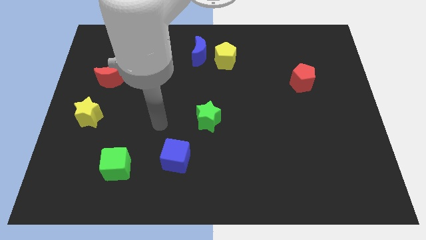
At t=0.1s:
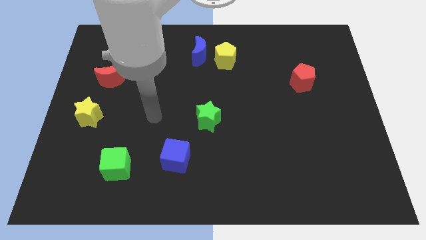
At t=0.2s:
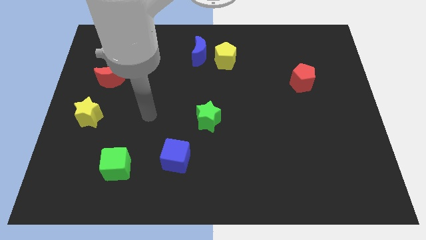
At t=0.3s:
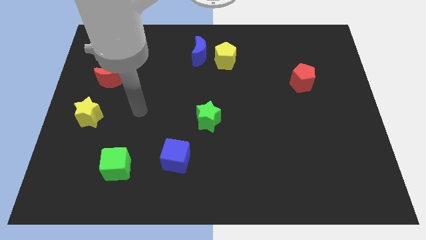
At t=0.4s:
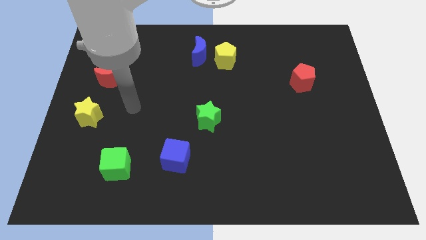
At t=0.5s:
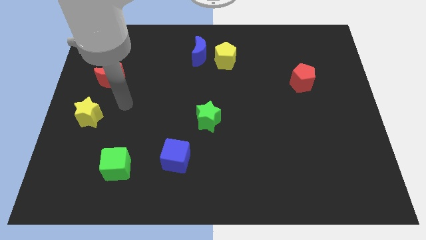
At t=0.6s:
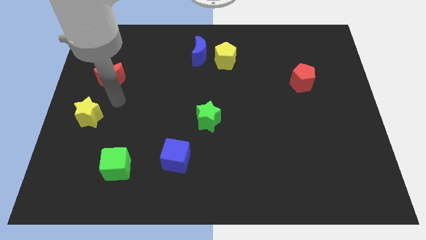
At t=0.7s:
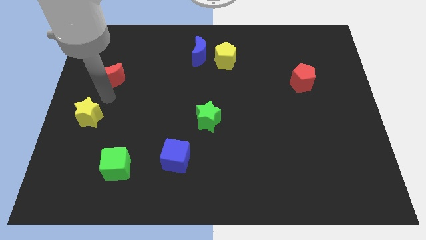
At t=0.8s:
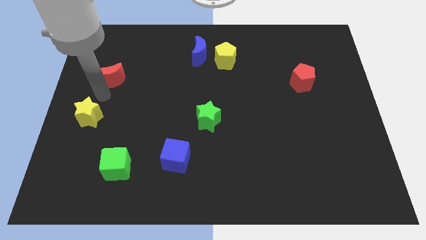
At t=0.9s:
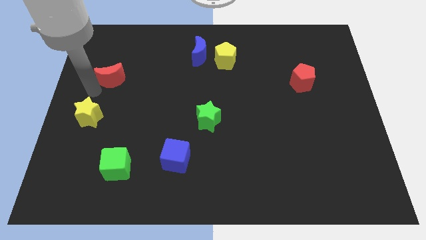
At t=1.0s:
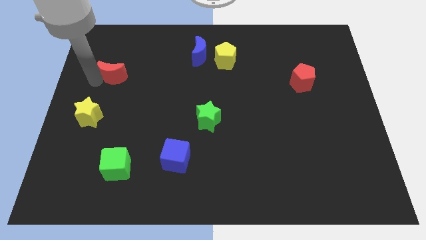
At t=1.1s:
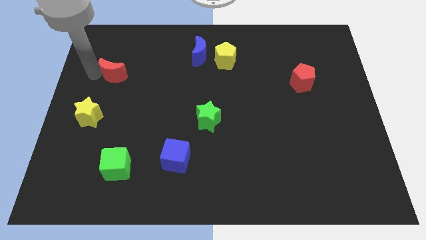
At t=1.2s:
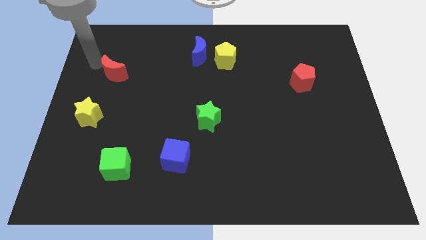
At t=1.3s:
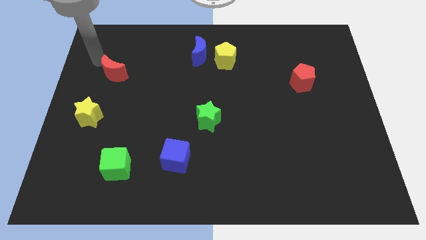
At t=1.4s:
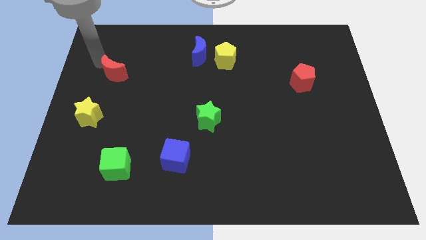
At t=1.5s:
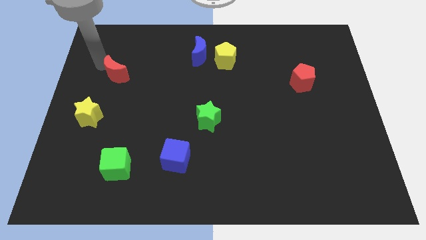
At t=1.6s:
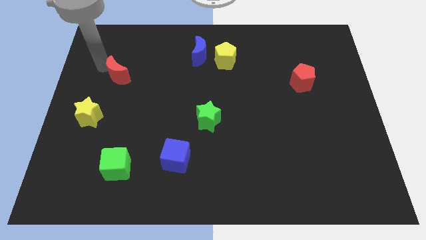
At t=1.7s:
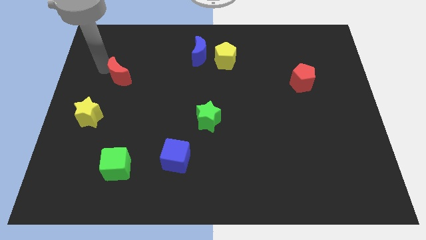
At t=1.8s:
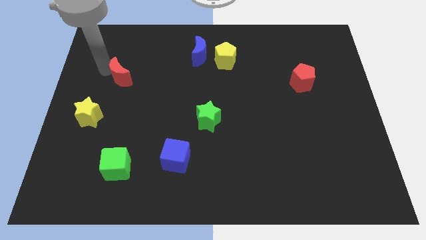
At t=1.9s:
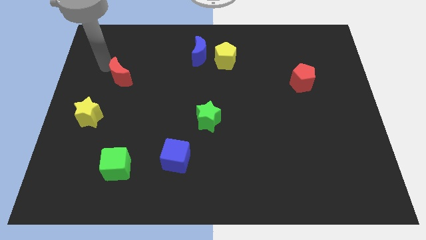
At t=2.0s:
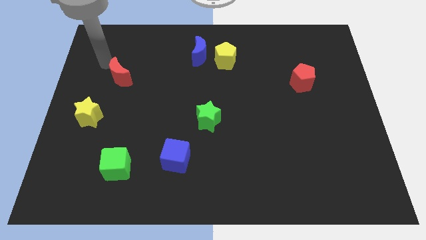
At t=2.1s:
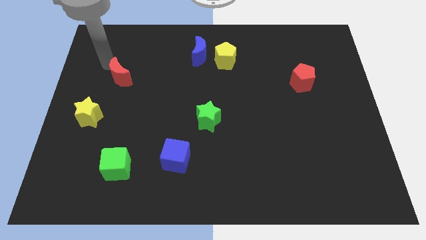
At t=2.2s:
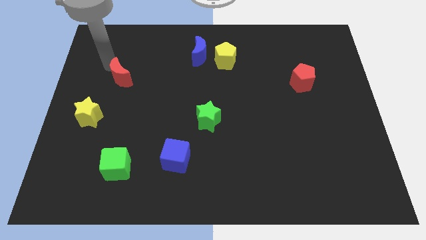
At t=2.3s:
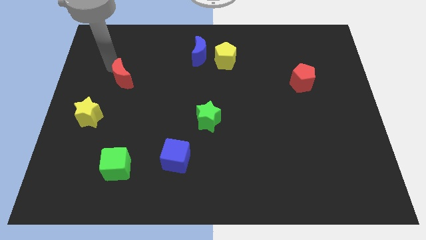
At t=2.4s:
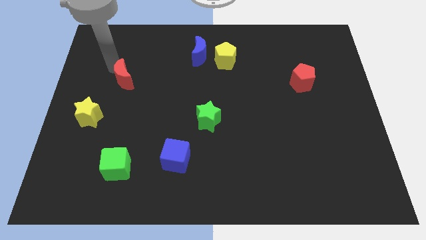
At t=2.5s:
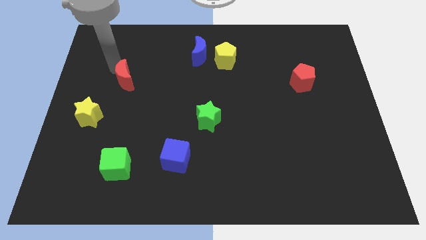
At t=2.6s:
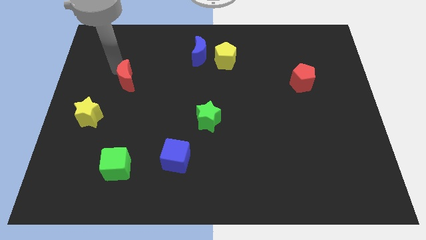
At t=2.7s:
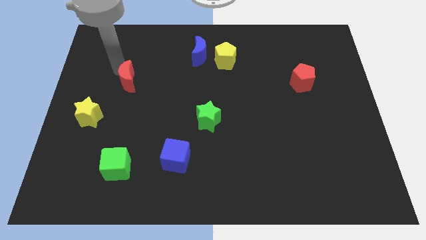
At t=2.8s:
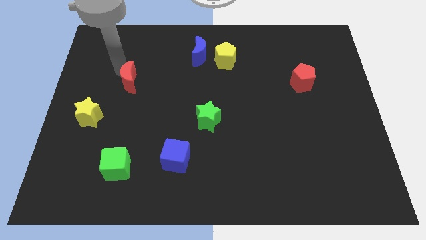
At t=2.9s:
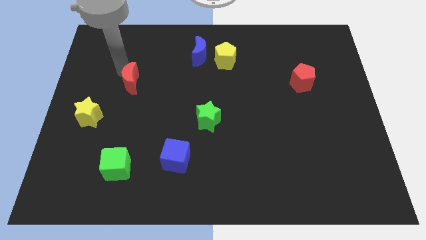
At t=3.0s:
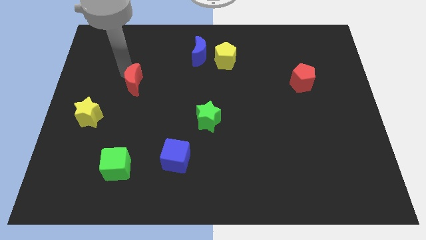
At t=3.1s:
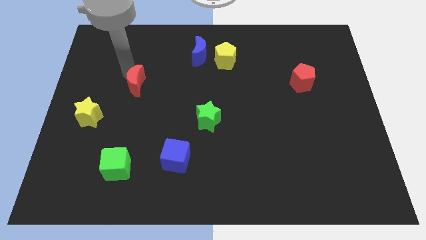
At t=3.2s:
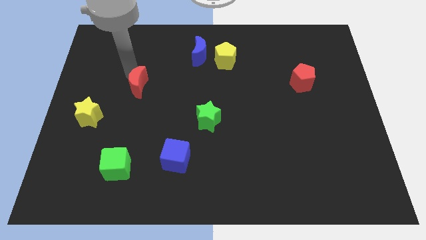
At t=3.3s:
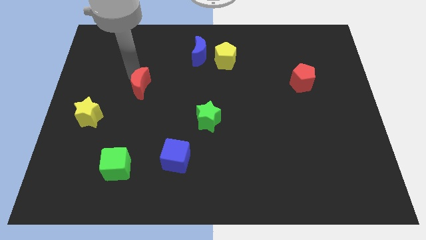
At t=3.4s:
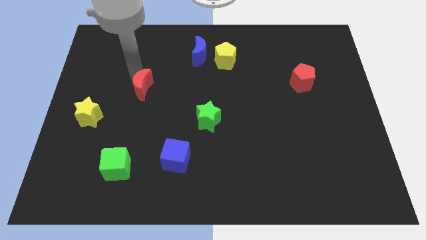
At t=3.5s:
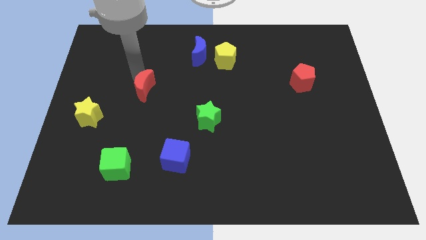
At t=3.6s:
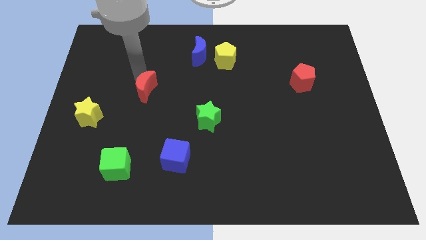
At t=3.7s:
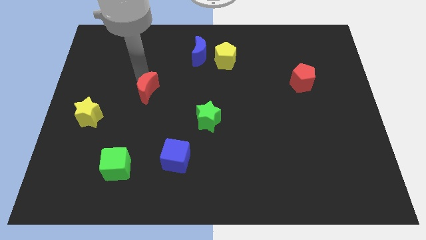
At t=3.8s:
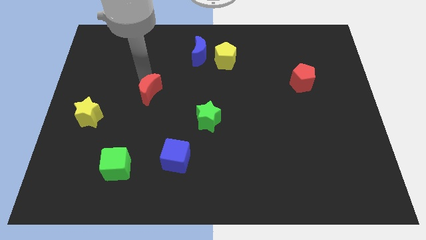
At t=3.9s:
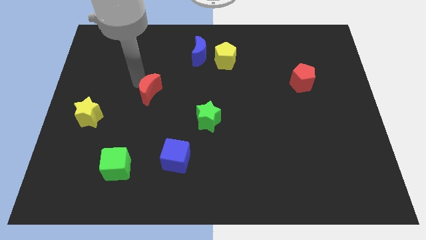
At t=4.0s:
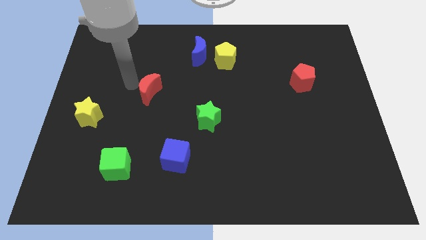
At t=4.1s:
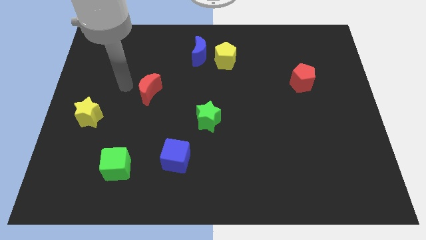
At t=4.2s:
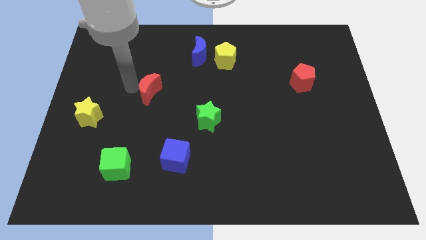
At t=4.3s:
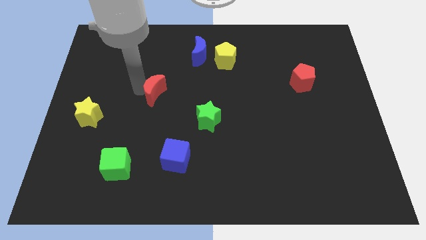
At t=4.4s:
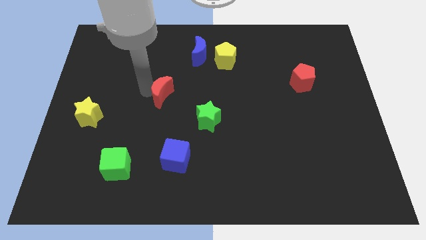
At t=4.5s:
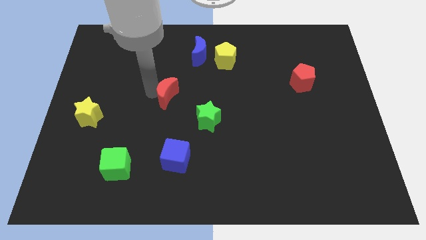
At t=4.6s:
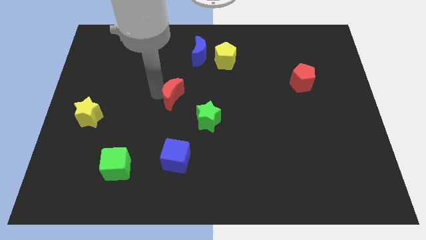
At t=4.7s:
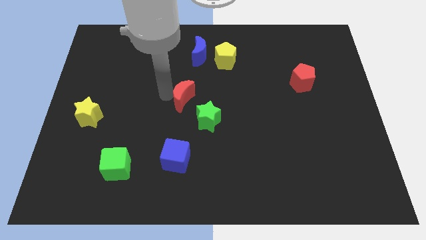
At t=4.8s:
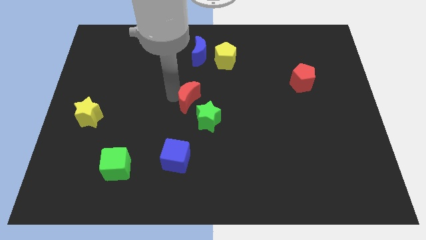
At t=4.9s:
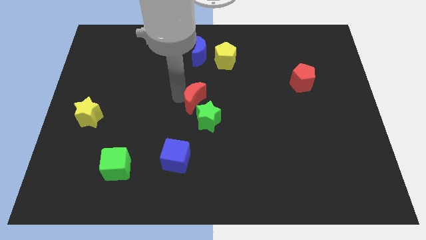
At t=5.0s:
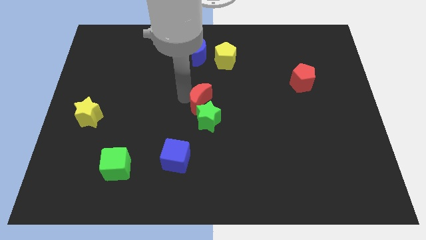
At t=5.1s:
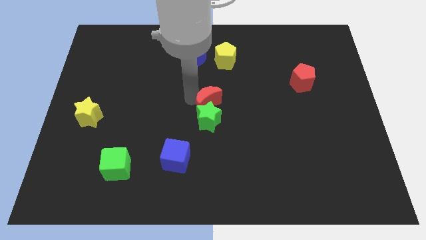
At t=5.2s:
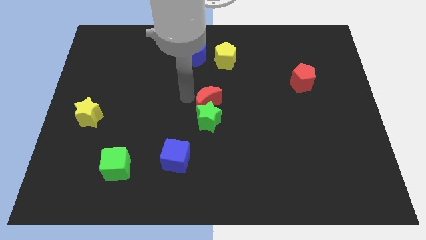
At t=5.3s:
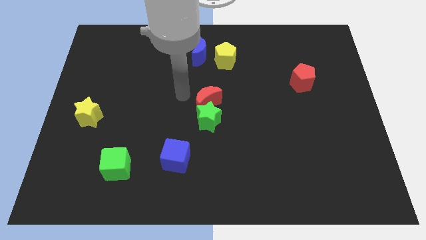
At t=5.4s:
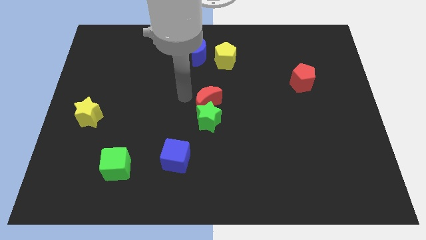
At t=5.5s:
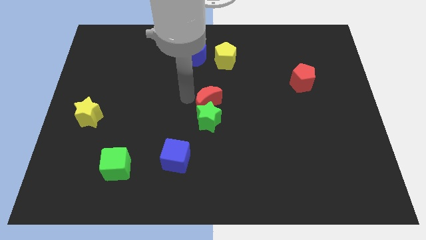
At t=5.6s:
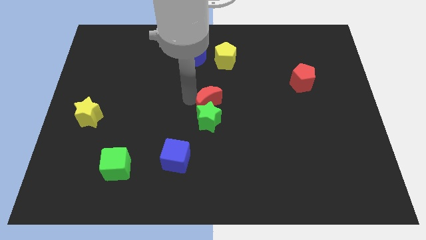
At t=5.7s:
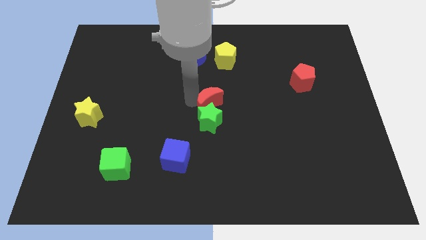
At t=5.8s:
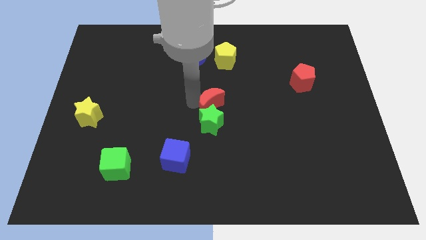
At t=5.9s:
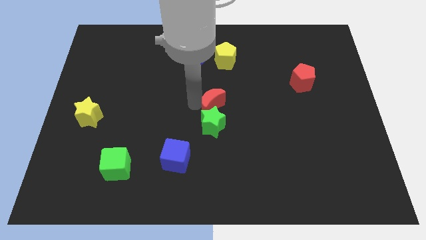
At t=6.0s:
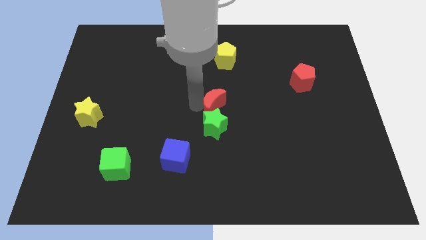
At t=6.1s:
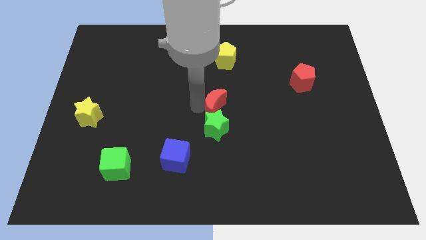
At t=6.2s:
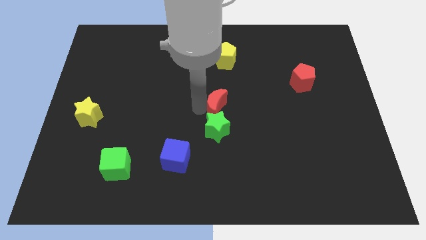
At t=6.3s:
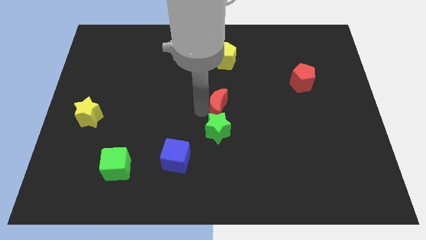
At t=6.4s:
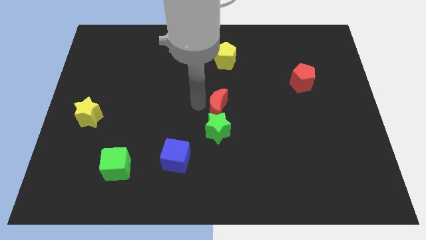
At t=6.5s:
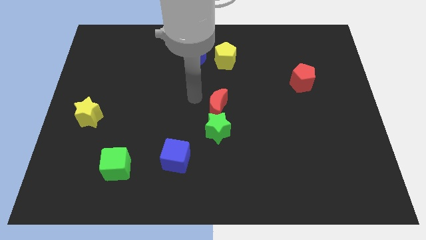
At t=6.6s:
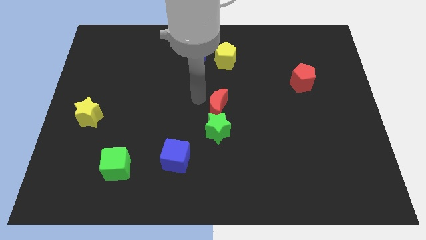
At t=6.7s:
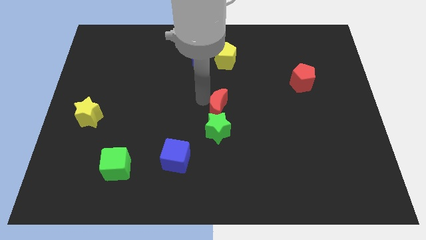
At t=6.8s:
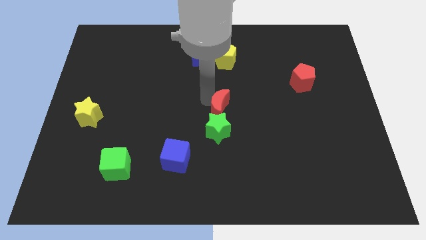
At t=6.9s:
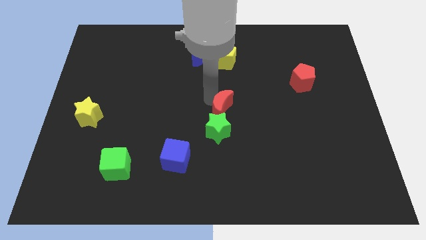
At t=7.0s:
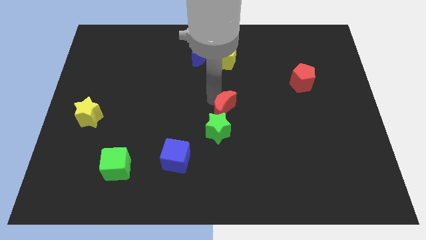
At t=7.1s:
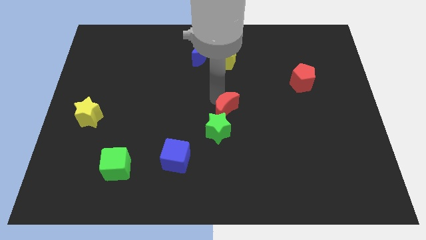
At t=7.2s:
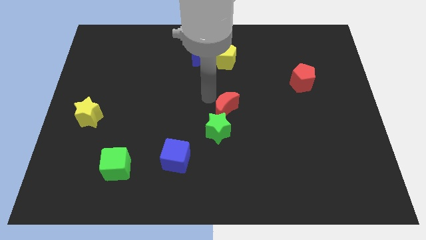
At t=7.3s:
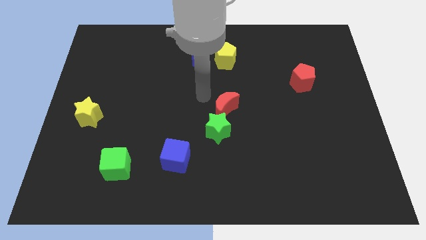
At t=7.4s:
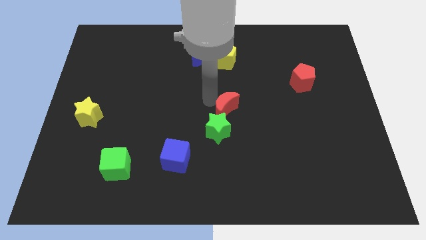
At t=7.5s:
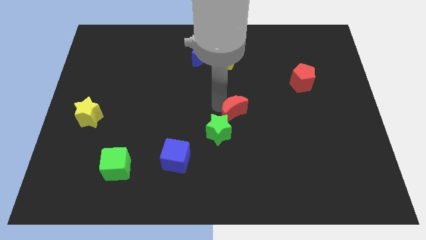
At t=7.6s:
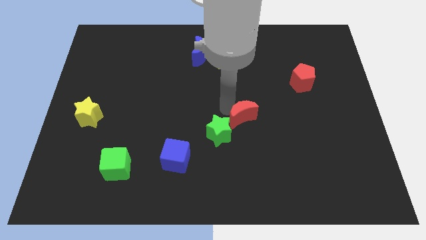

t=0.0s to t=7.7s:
push the red moon to the right side of the green star

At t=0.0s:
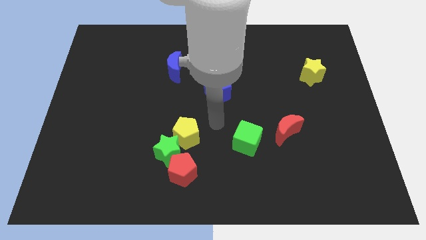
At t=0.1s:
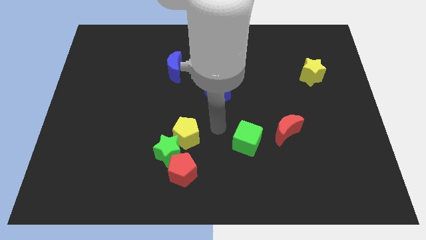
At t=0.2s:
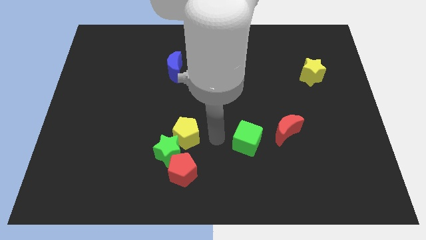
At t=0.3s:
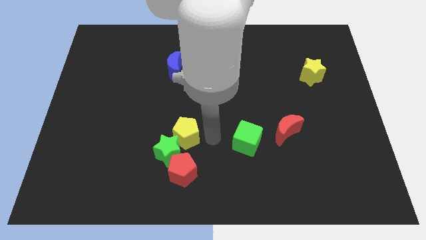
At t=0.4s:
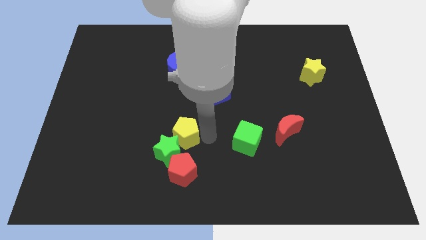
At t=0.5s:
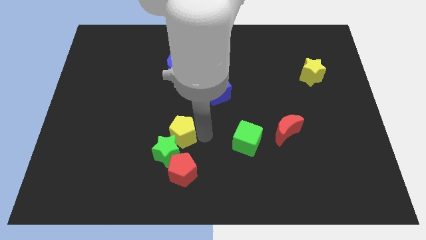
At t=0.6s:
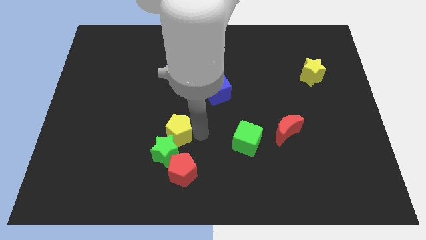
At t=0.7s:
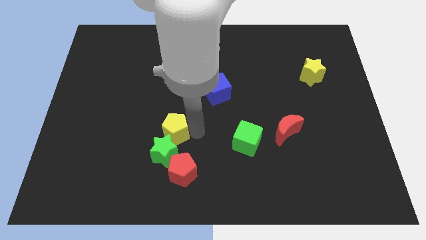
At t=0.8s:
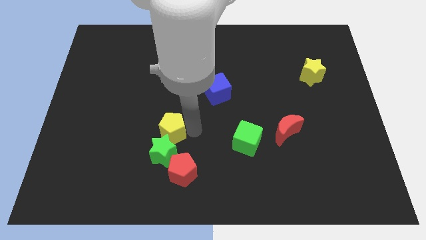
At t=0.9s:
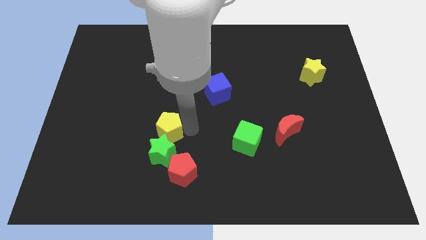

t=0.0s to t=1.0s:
put the yellow pentagon diagonally up and to the left of the green star
